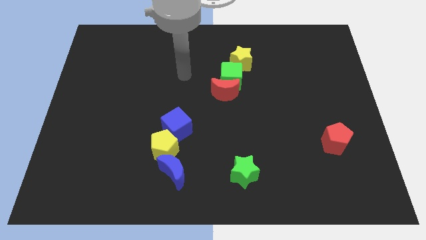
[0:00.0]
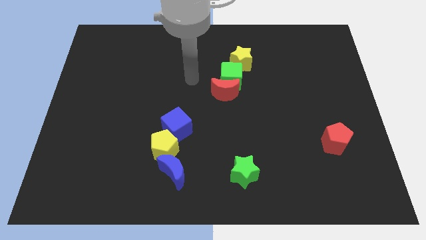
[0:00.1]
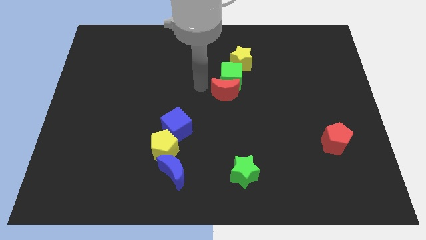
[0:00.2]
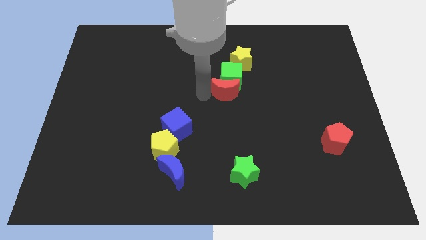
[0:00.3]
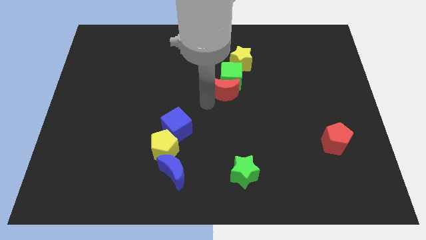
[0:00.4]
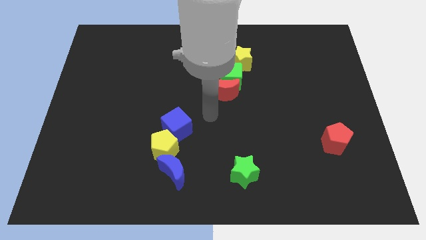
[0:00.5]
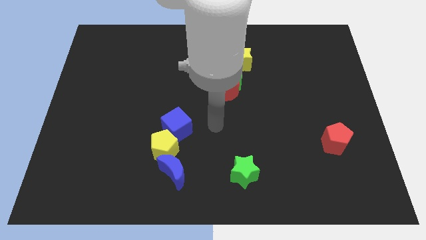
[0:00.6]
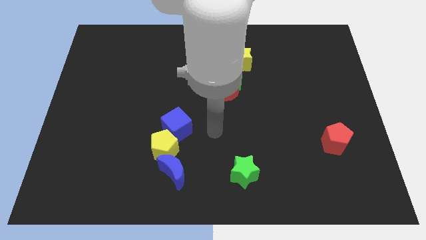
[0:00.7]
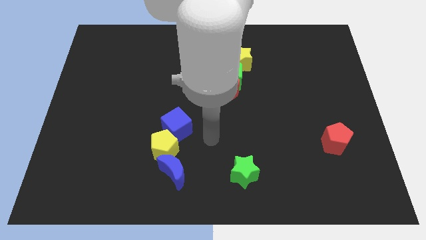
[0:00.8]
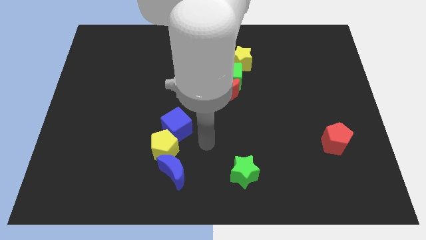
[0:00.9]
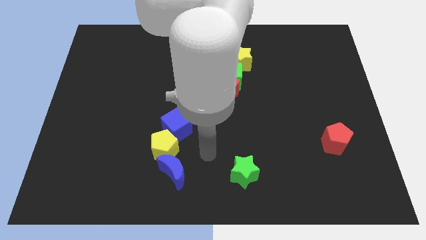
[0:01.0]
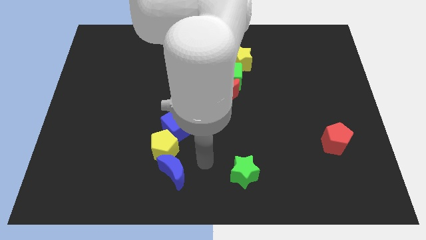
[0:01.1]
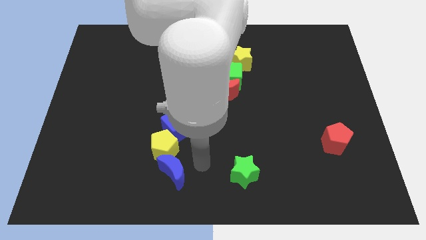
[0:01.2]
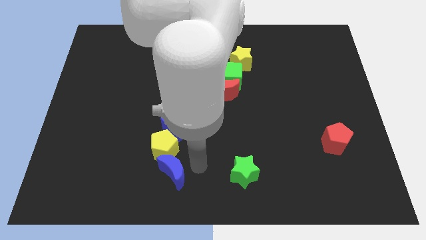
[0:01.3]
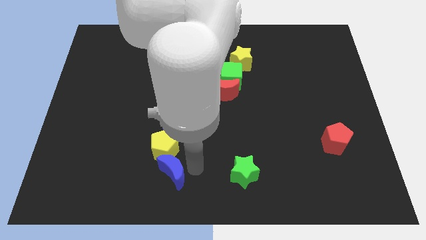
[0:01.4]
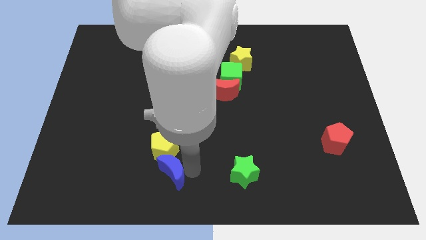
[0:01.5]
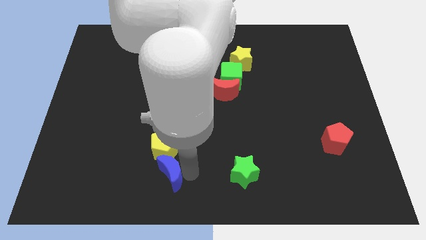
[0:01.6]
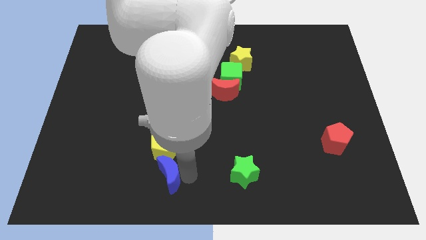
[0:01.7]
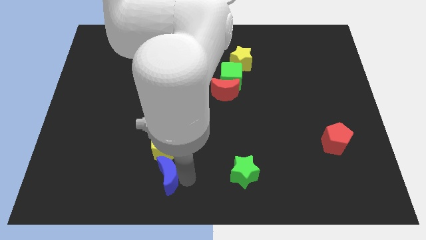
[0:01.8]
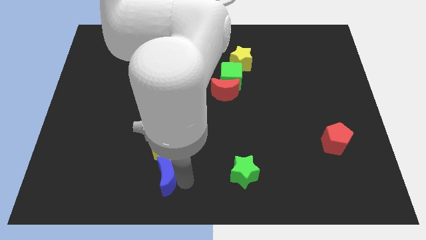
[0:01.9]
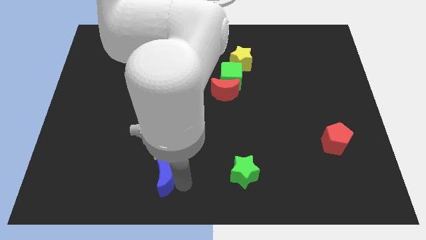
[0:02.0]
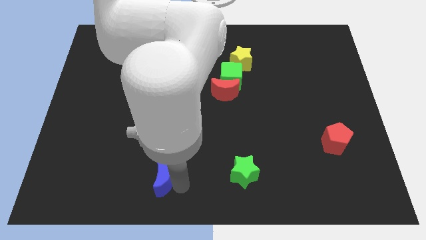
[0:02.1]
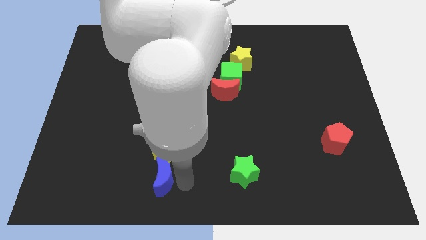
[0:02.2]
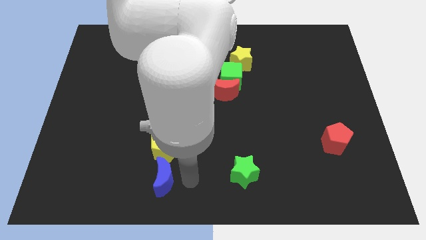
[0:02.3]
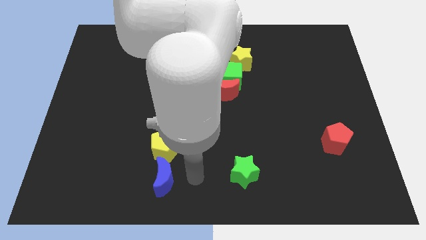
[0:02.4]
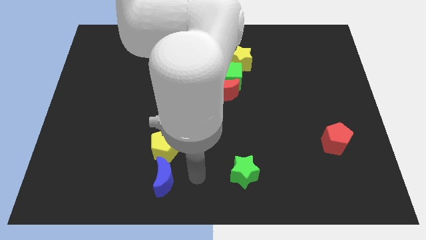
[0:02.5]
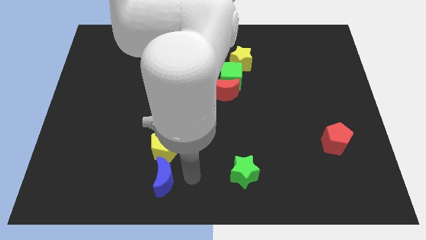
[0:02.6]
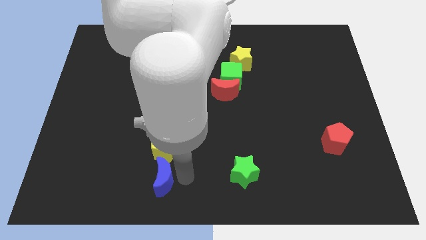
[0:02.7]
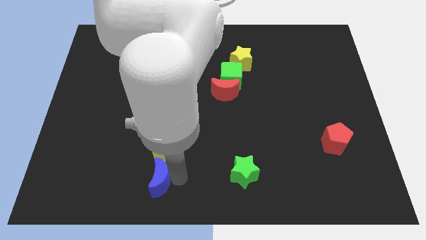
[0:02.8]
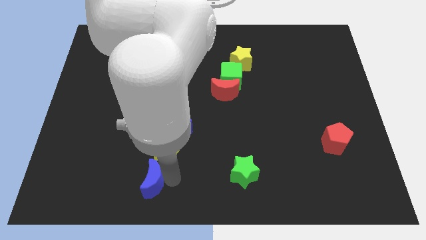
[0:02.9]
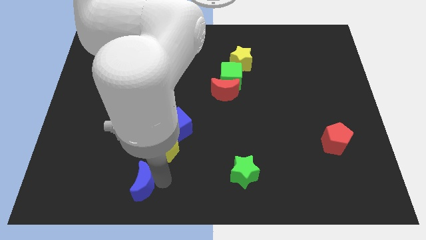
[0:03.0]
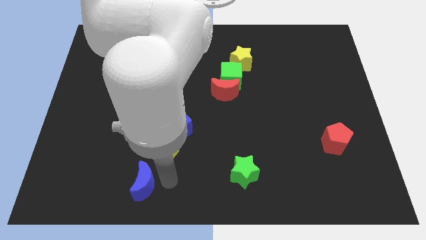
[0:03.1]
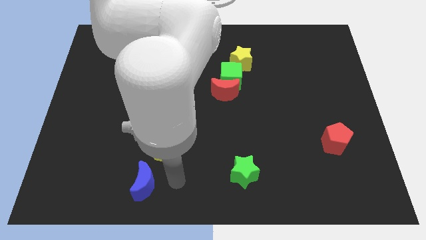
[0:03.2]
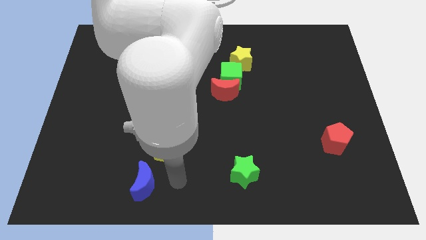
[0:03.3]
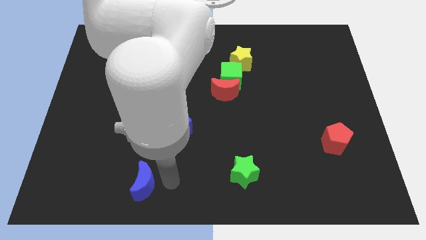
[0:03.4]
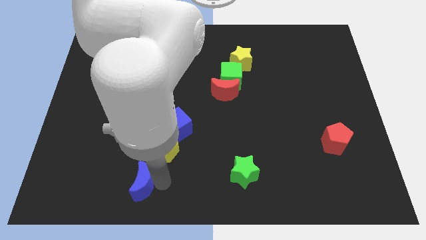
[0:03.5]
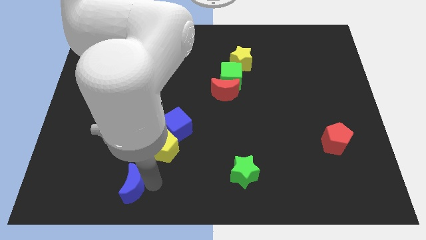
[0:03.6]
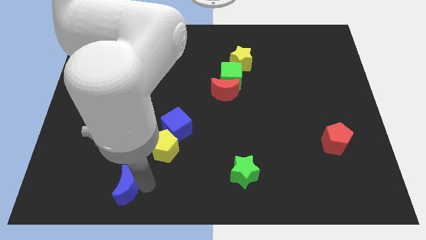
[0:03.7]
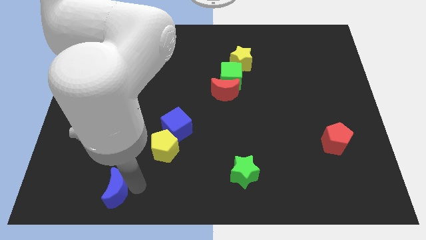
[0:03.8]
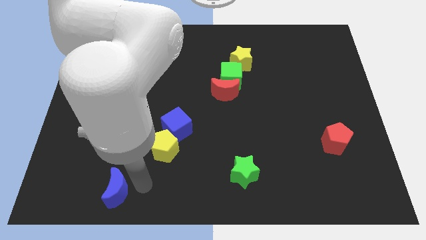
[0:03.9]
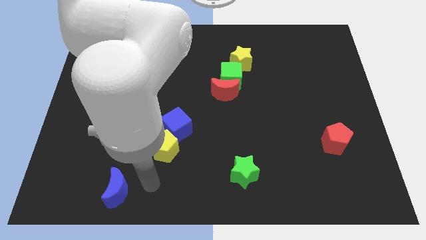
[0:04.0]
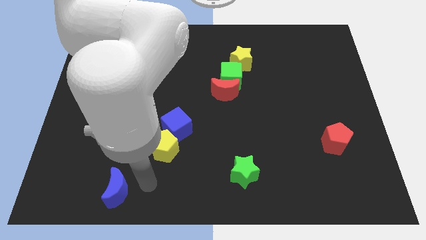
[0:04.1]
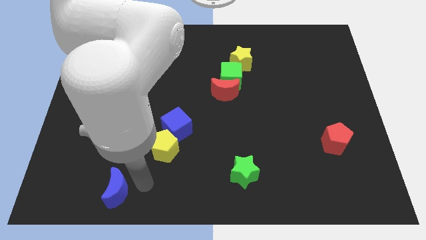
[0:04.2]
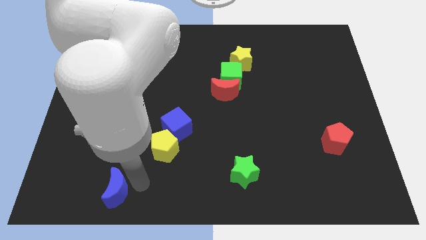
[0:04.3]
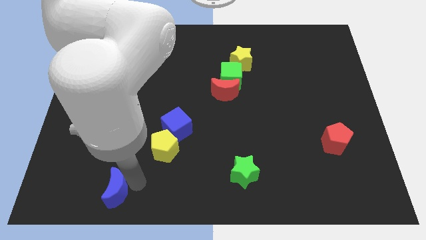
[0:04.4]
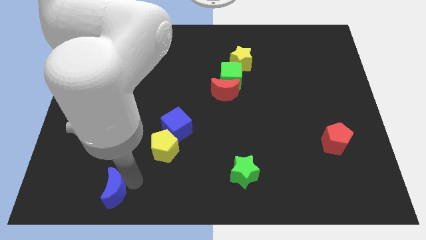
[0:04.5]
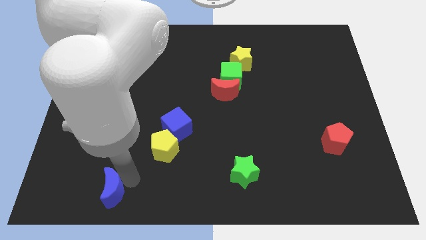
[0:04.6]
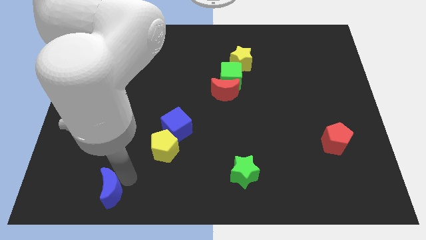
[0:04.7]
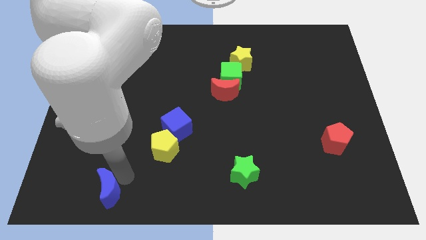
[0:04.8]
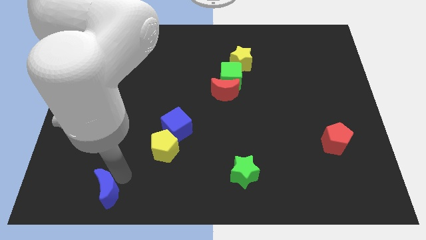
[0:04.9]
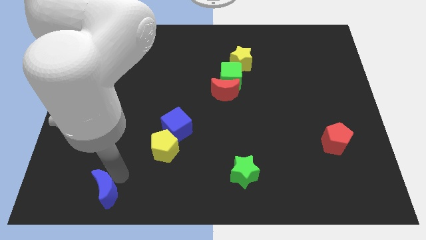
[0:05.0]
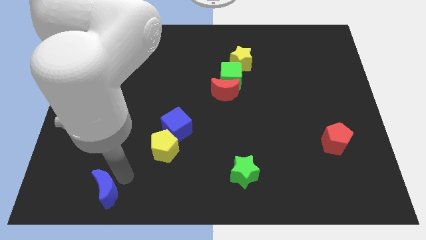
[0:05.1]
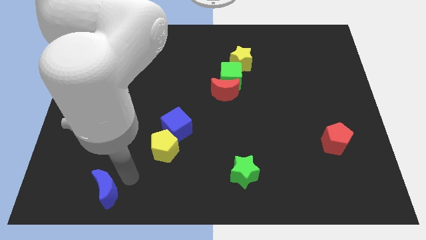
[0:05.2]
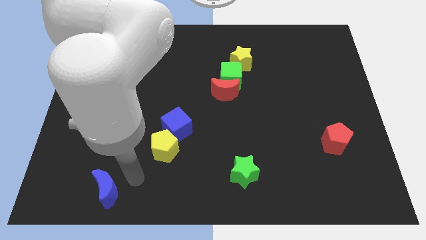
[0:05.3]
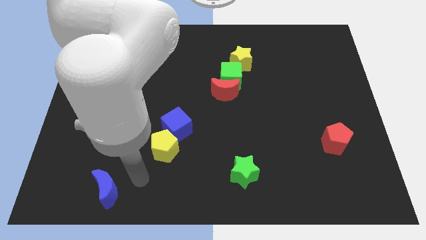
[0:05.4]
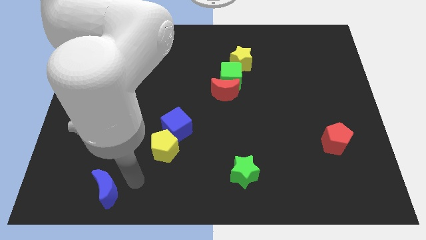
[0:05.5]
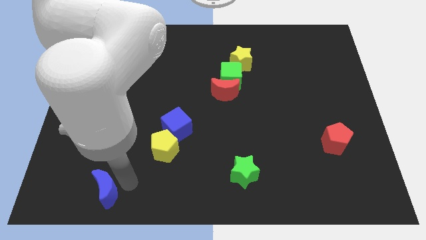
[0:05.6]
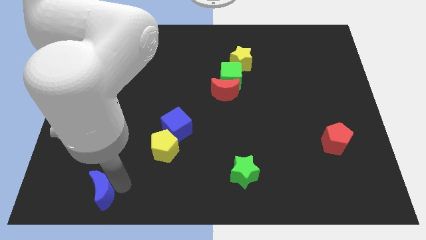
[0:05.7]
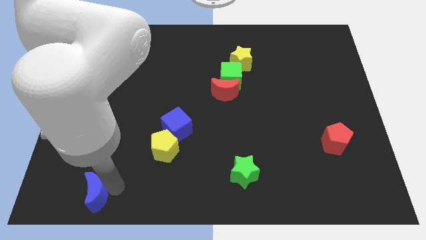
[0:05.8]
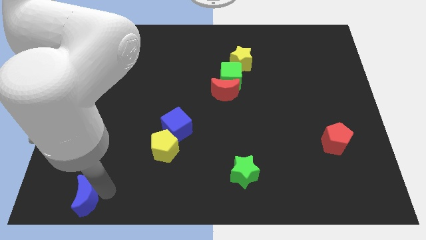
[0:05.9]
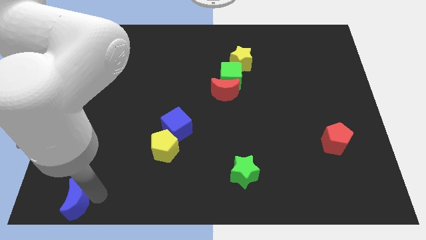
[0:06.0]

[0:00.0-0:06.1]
move the blue moon to the lower left corner

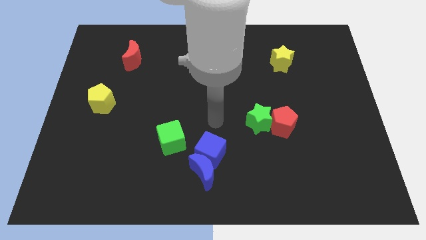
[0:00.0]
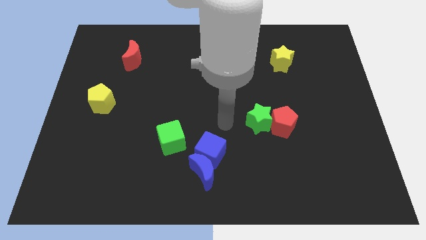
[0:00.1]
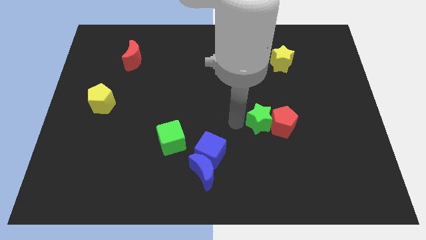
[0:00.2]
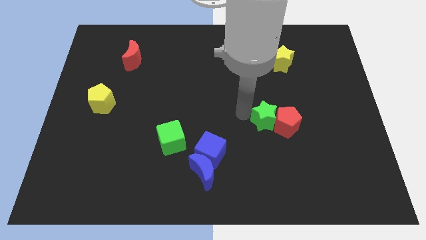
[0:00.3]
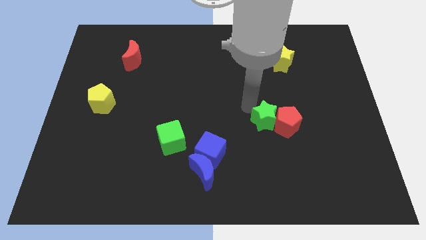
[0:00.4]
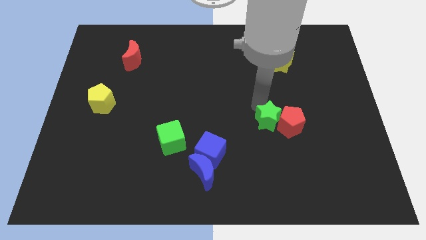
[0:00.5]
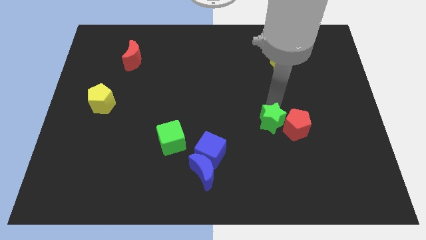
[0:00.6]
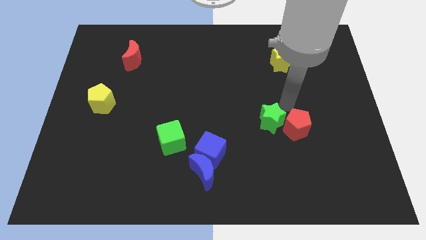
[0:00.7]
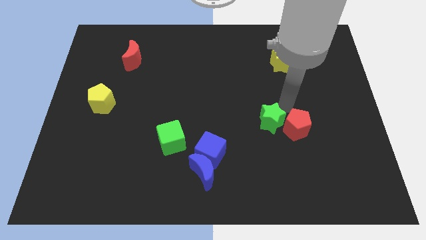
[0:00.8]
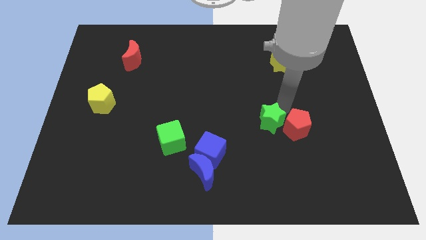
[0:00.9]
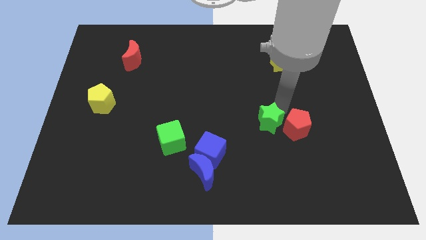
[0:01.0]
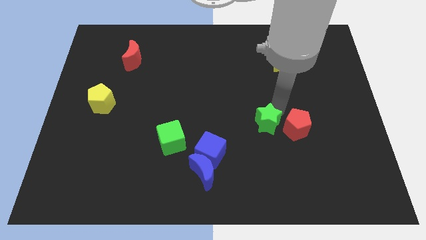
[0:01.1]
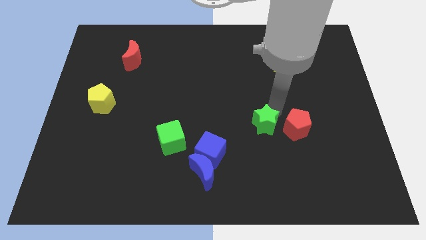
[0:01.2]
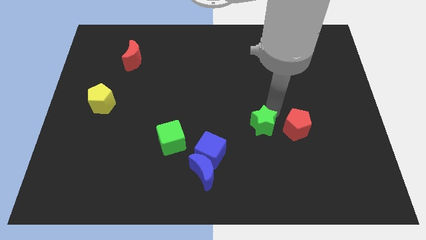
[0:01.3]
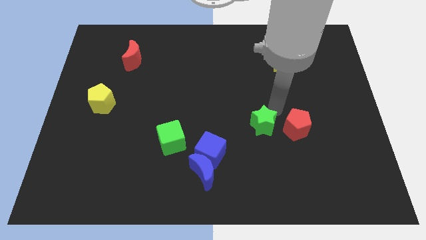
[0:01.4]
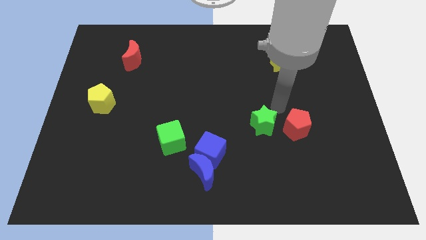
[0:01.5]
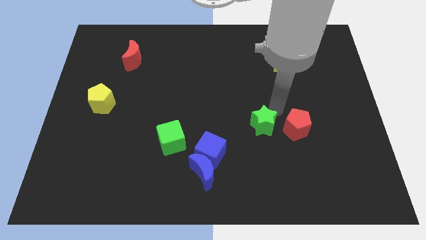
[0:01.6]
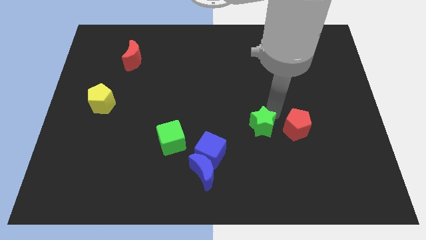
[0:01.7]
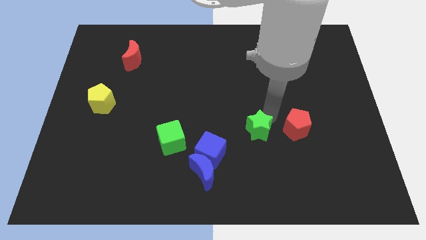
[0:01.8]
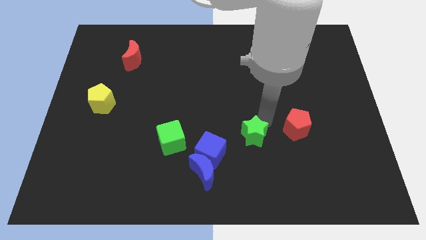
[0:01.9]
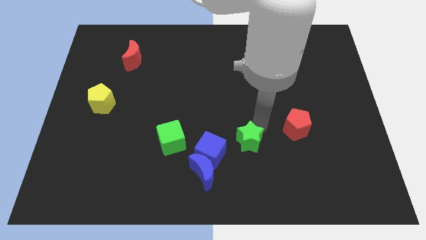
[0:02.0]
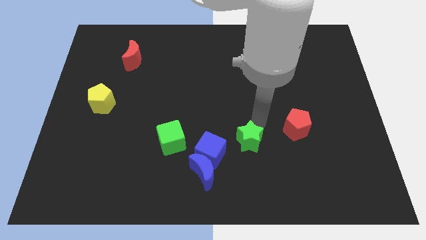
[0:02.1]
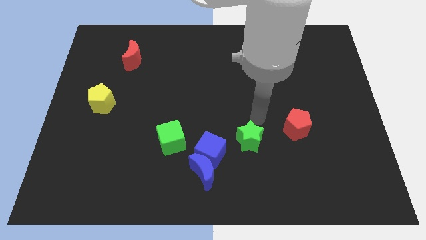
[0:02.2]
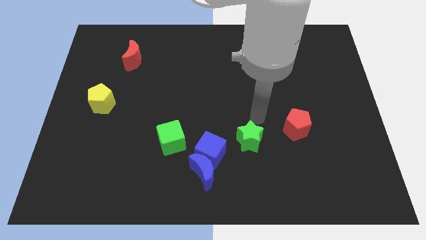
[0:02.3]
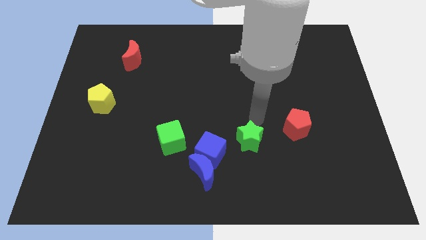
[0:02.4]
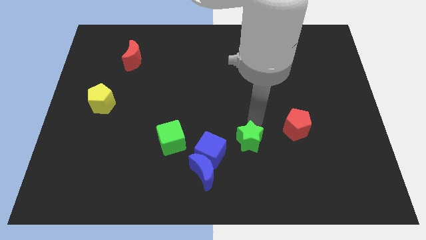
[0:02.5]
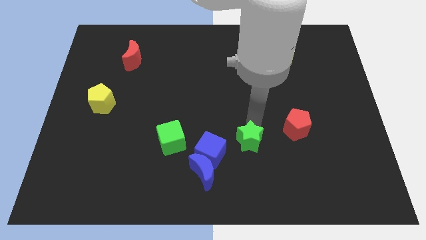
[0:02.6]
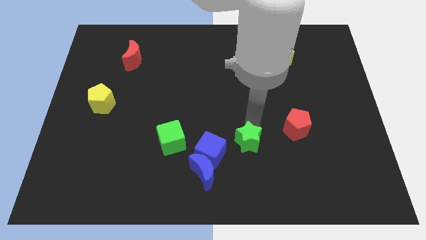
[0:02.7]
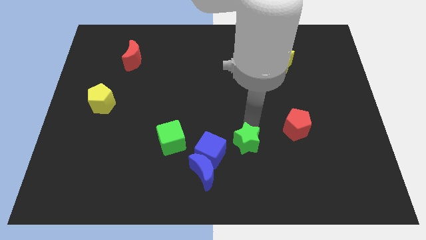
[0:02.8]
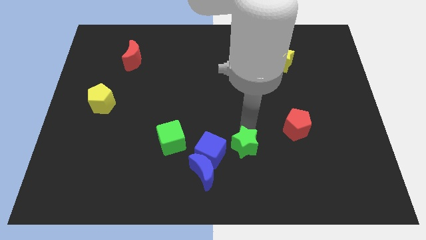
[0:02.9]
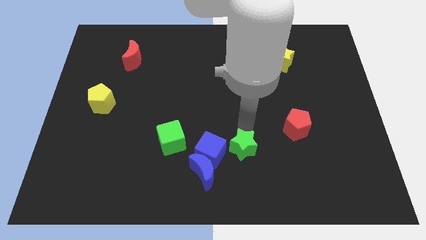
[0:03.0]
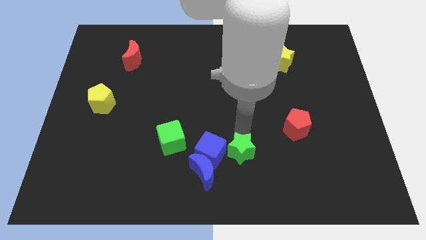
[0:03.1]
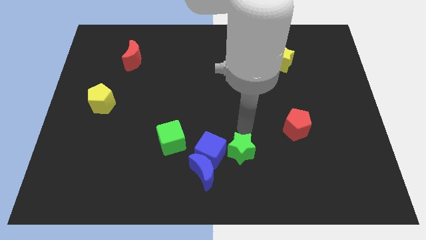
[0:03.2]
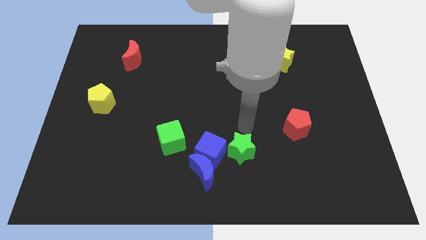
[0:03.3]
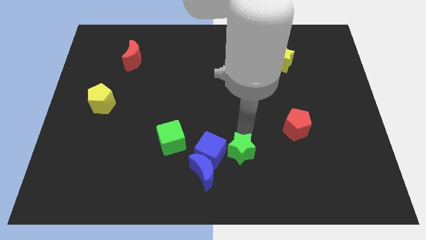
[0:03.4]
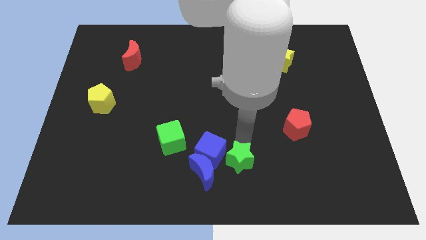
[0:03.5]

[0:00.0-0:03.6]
move the green star to the bottom side
